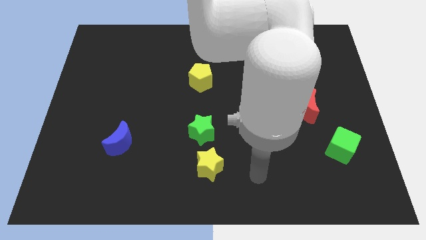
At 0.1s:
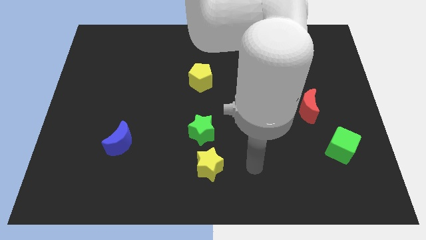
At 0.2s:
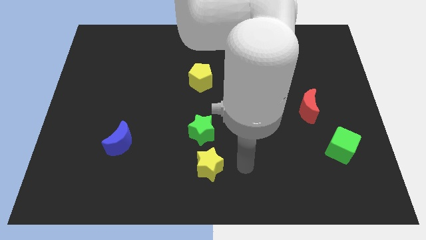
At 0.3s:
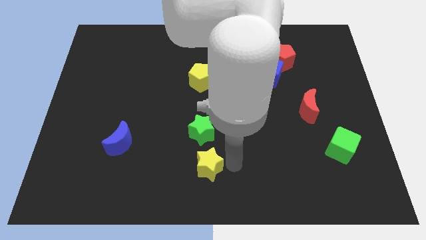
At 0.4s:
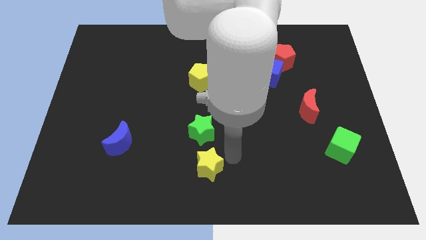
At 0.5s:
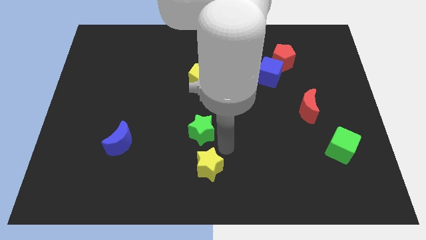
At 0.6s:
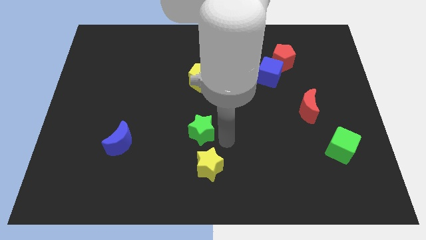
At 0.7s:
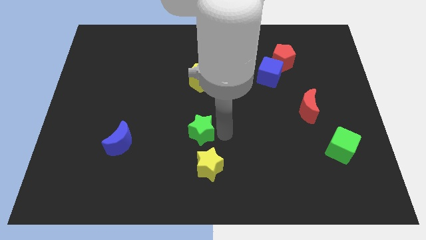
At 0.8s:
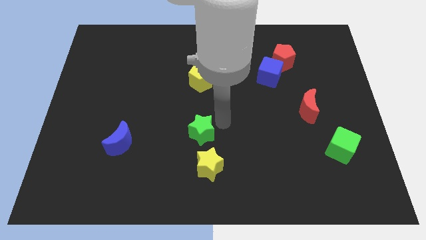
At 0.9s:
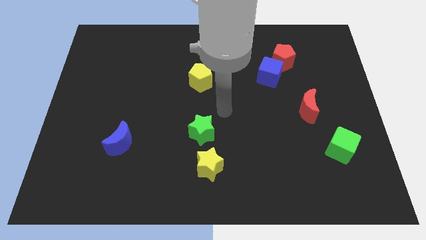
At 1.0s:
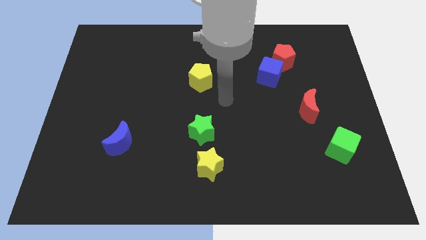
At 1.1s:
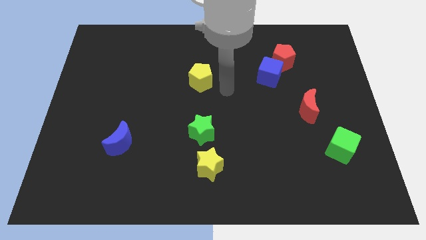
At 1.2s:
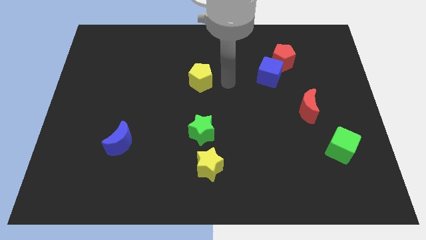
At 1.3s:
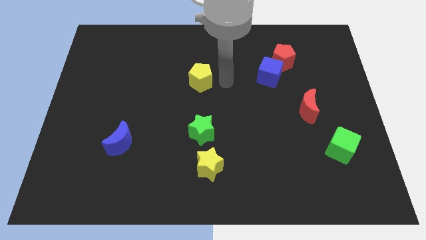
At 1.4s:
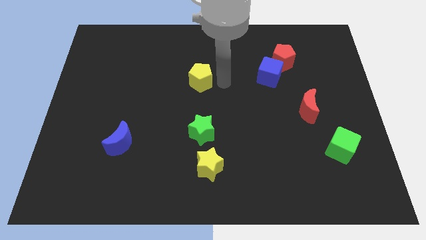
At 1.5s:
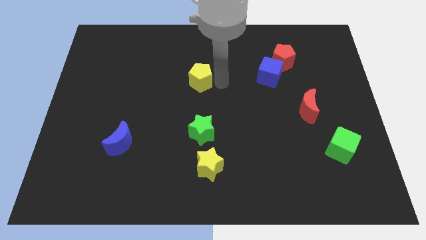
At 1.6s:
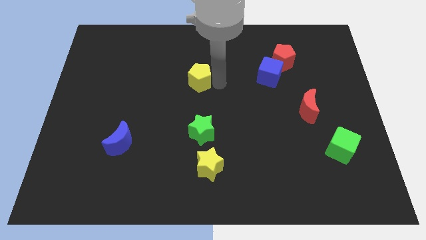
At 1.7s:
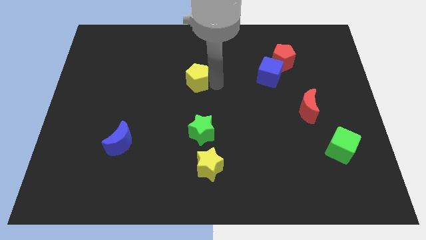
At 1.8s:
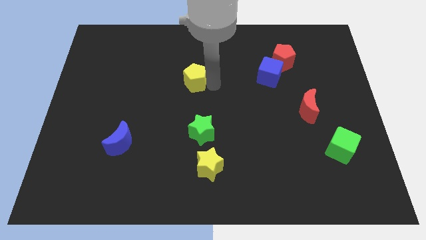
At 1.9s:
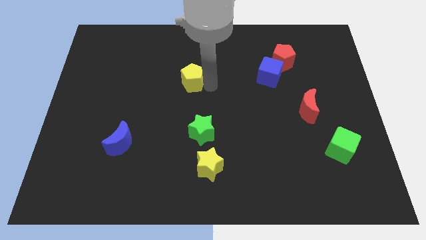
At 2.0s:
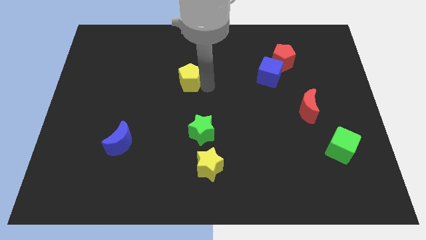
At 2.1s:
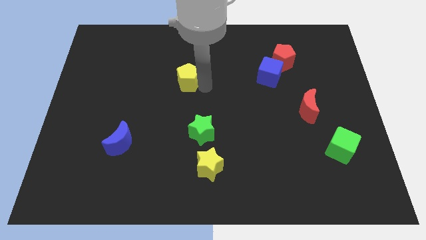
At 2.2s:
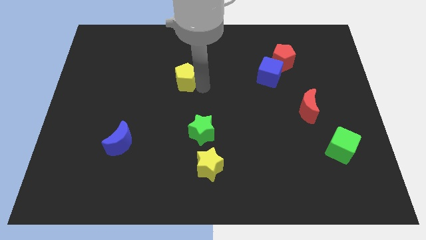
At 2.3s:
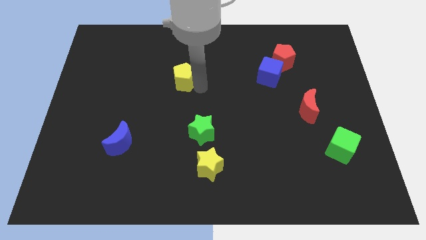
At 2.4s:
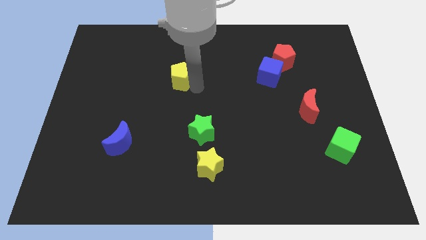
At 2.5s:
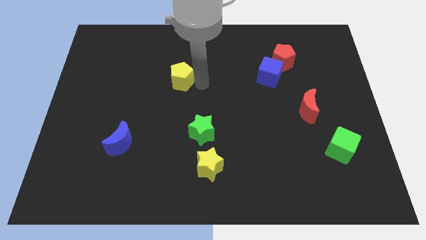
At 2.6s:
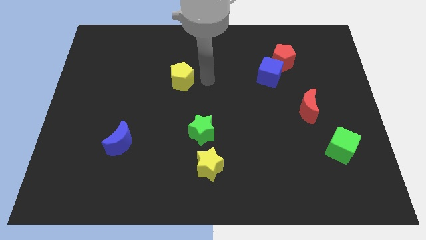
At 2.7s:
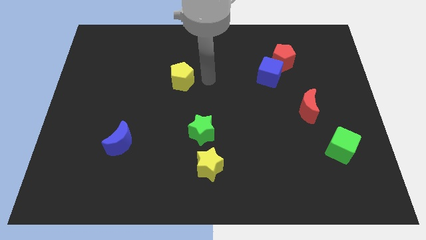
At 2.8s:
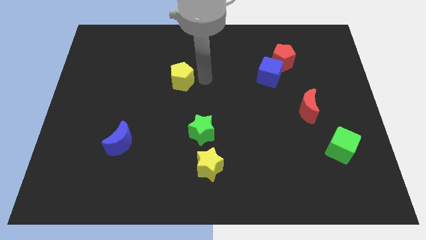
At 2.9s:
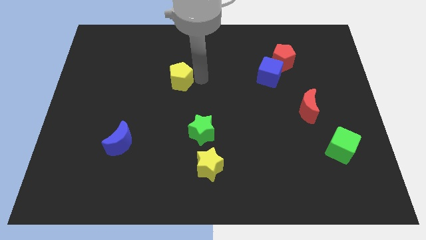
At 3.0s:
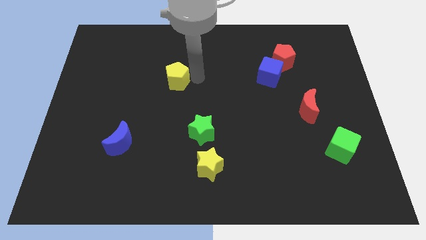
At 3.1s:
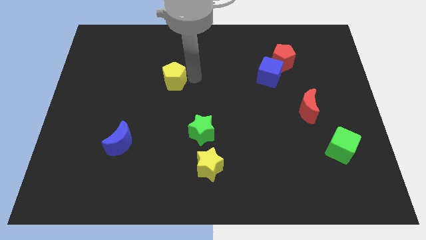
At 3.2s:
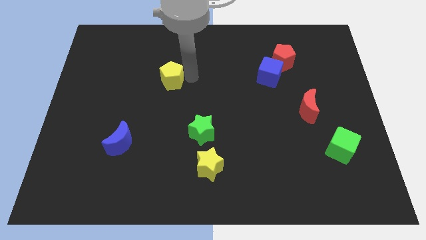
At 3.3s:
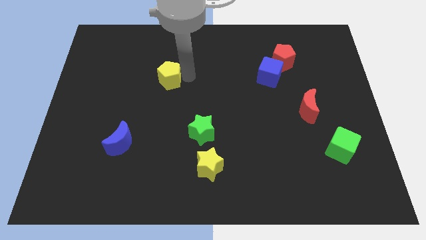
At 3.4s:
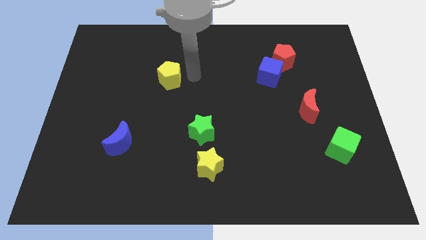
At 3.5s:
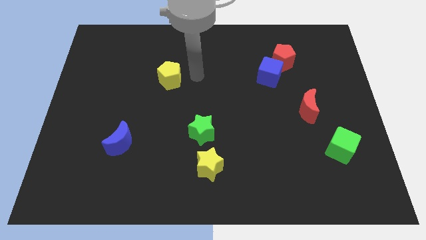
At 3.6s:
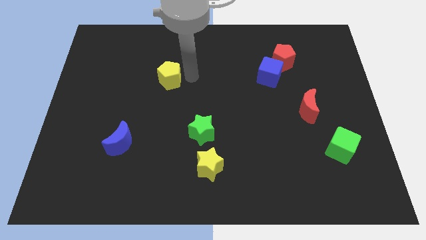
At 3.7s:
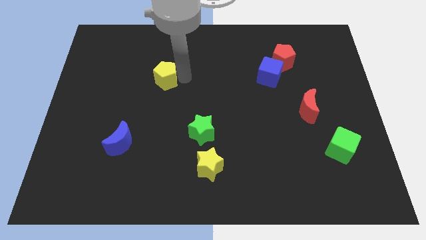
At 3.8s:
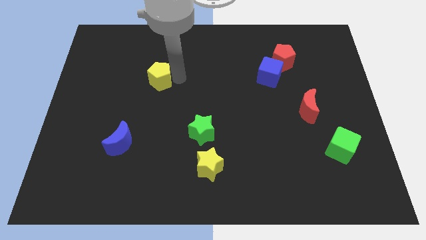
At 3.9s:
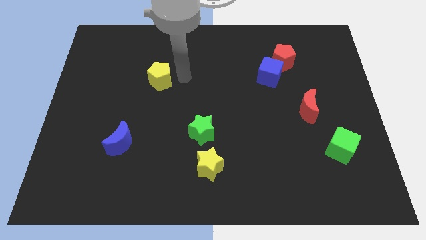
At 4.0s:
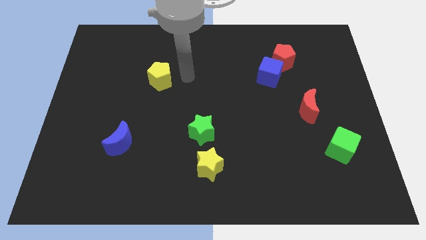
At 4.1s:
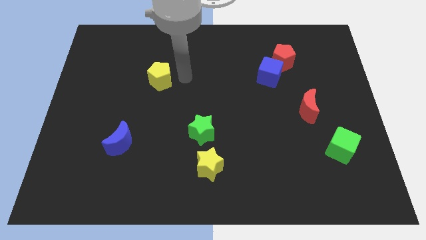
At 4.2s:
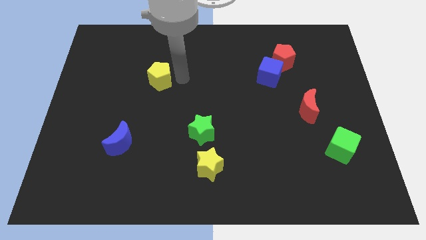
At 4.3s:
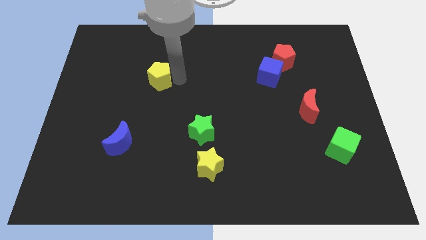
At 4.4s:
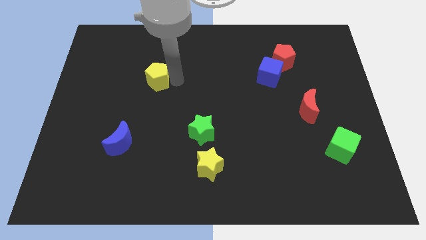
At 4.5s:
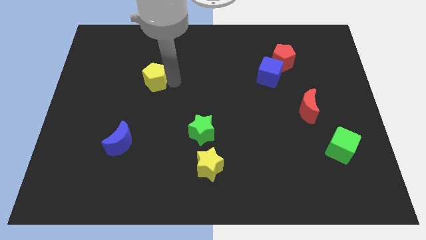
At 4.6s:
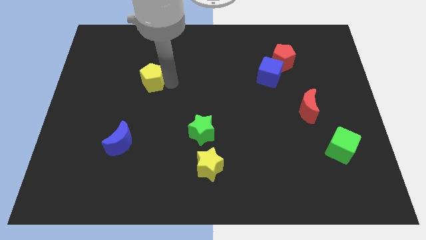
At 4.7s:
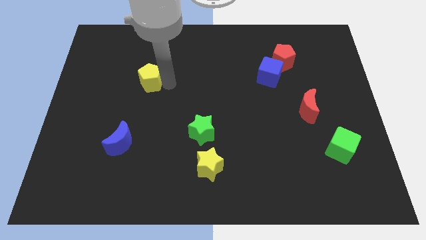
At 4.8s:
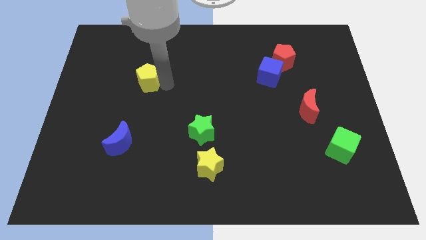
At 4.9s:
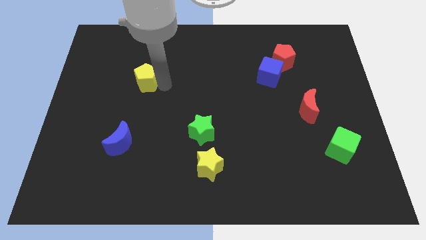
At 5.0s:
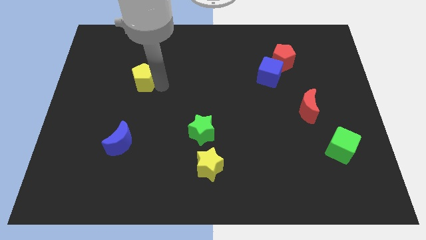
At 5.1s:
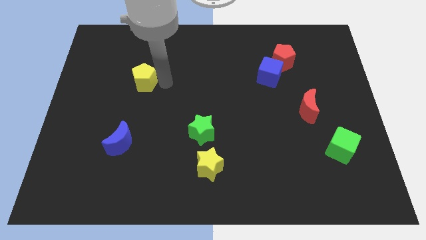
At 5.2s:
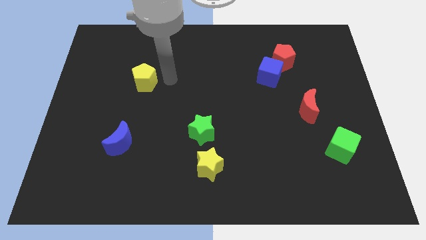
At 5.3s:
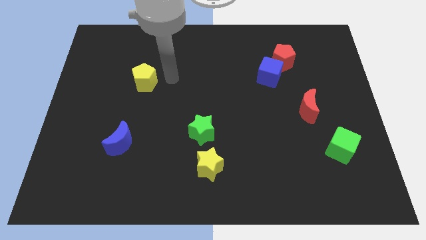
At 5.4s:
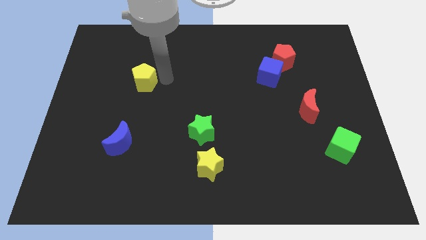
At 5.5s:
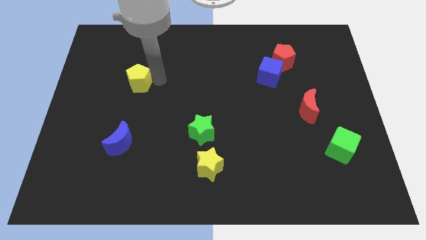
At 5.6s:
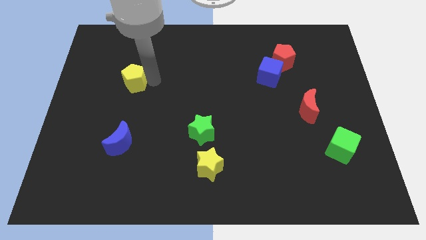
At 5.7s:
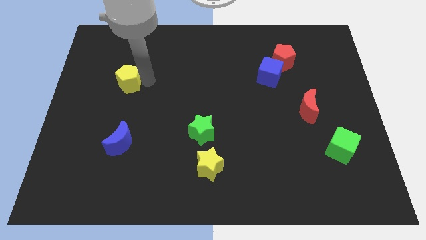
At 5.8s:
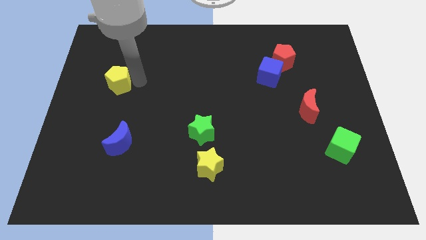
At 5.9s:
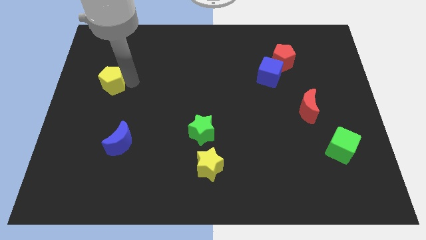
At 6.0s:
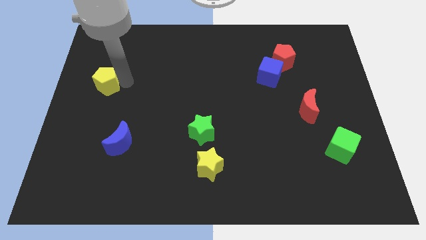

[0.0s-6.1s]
put the yellow pentagon to the center left

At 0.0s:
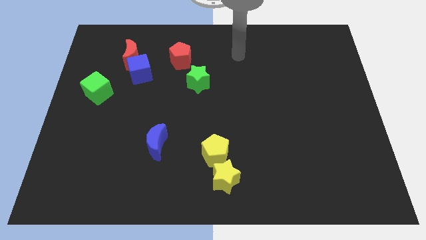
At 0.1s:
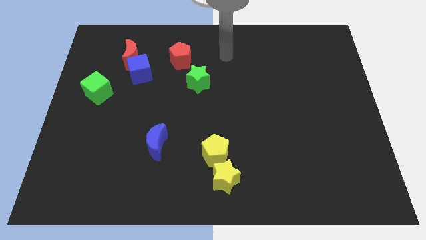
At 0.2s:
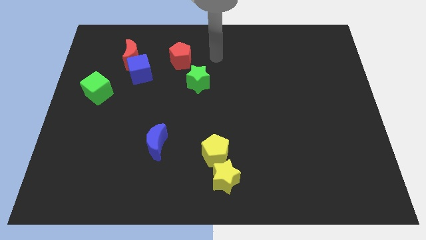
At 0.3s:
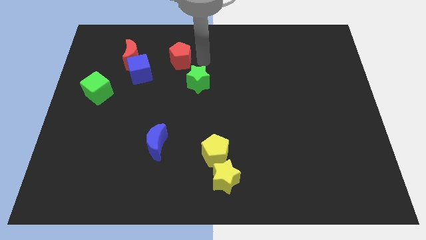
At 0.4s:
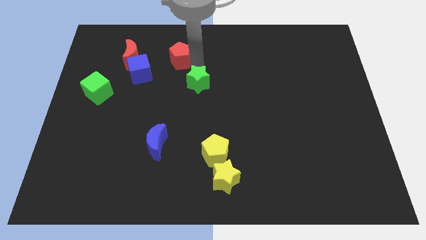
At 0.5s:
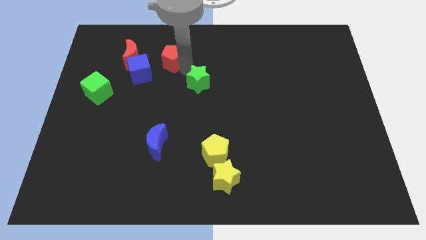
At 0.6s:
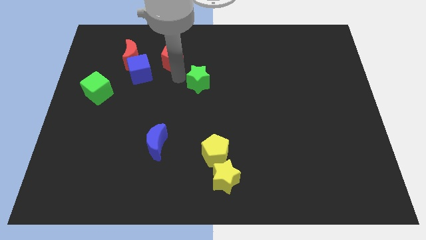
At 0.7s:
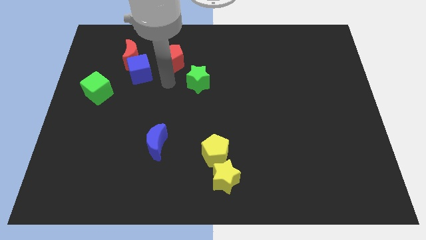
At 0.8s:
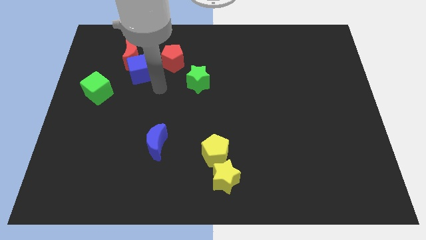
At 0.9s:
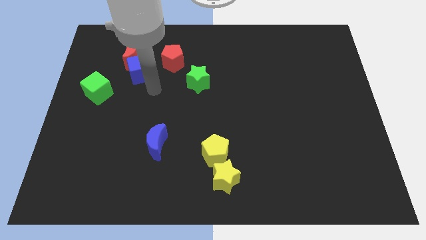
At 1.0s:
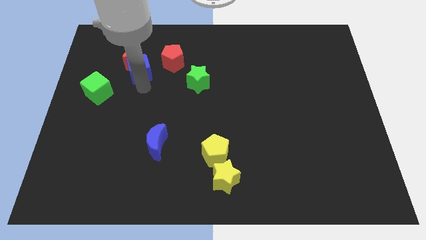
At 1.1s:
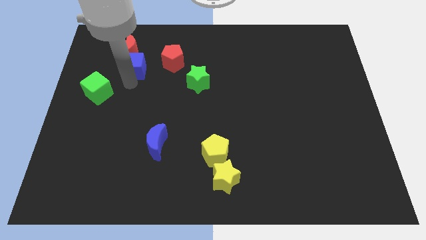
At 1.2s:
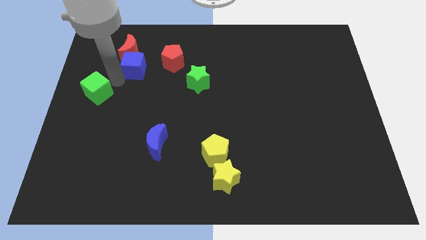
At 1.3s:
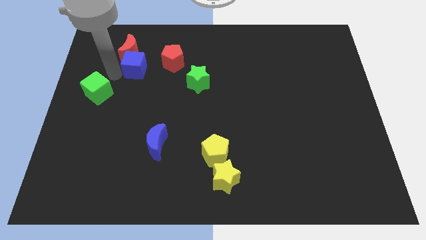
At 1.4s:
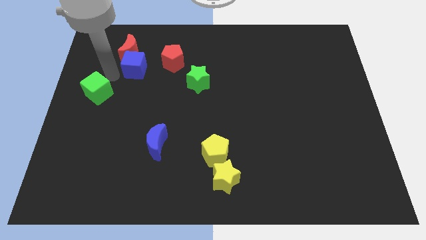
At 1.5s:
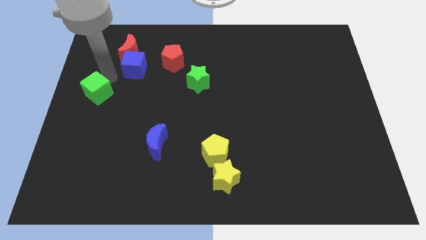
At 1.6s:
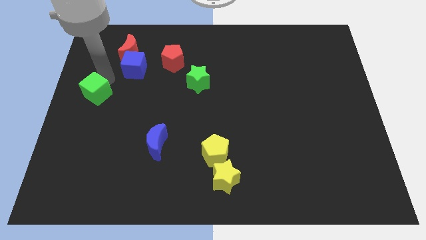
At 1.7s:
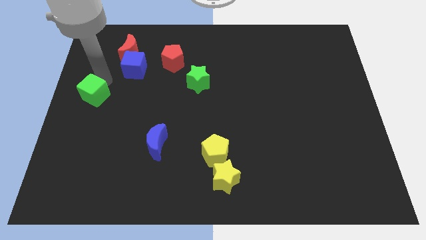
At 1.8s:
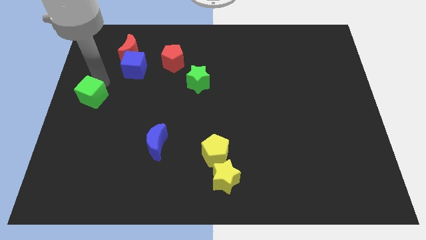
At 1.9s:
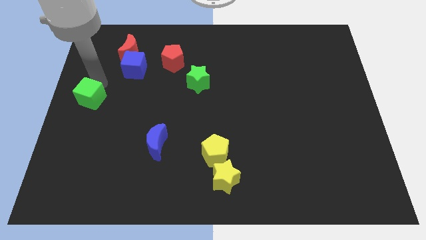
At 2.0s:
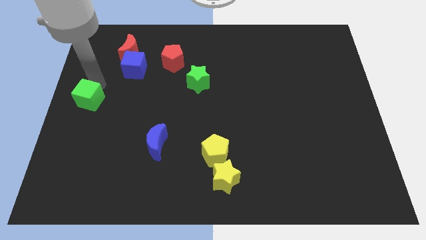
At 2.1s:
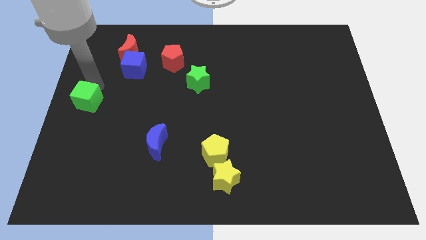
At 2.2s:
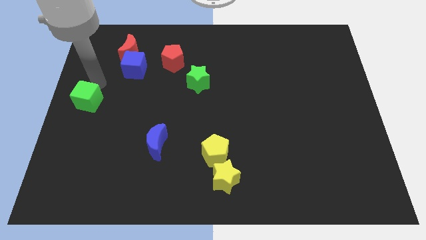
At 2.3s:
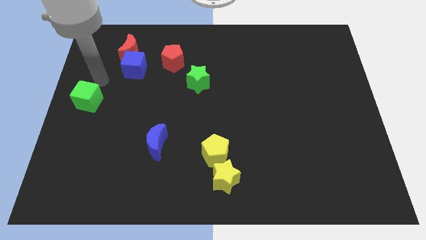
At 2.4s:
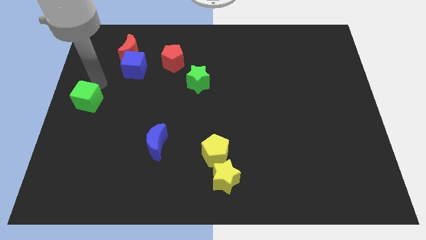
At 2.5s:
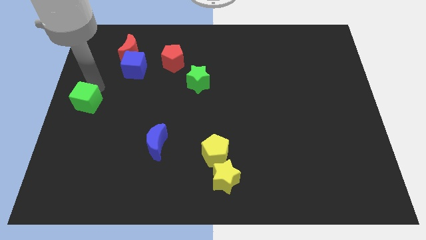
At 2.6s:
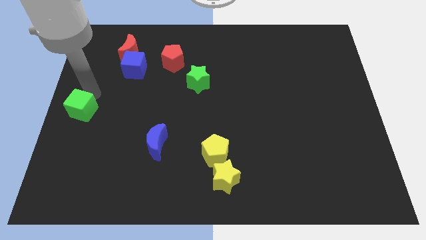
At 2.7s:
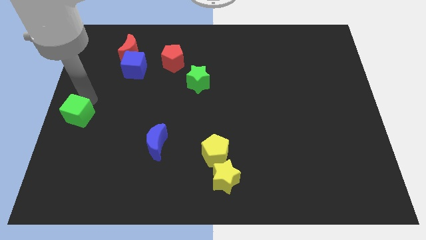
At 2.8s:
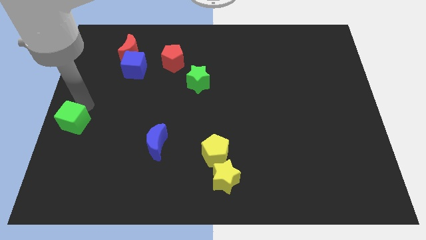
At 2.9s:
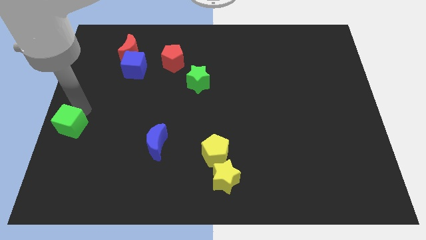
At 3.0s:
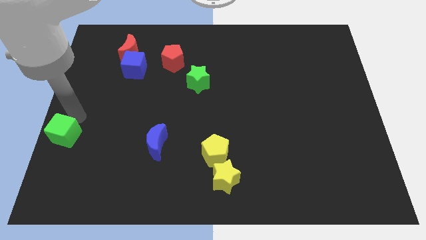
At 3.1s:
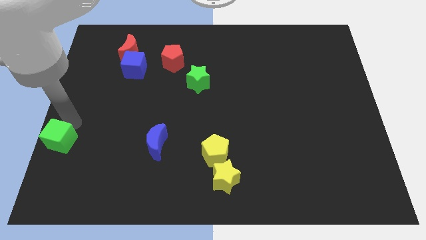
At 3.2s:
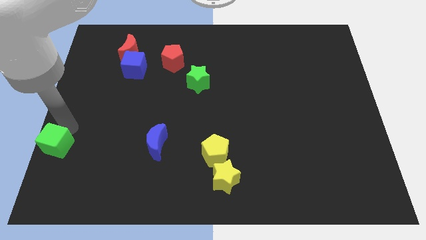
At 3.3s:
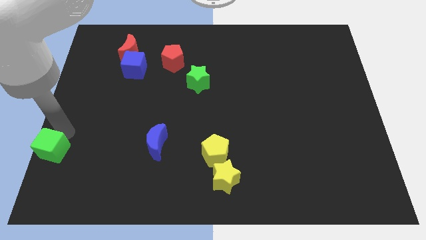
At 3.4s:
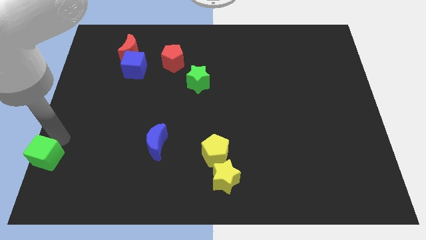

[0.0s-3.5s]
slide the green cube to the bottom left
